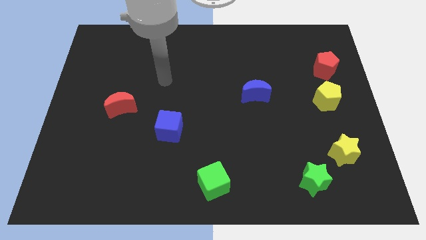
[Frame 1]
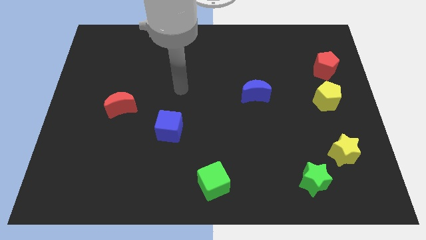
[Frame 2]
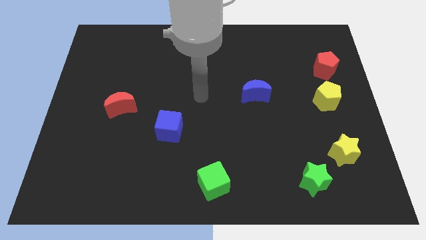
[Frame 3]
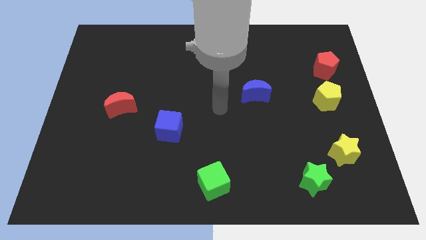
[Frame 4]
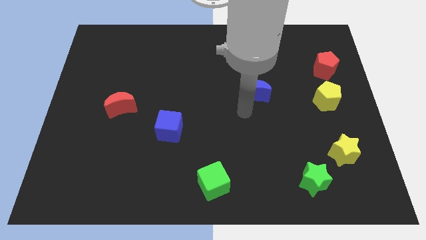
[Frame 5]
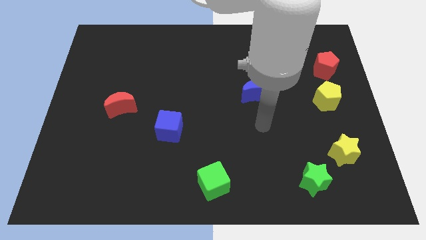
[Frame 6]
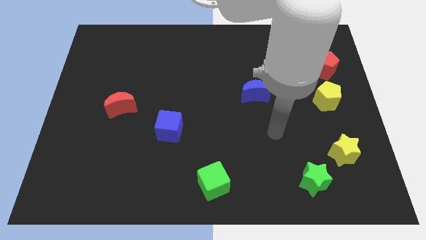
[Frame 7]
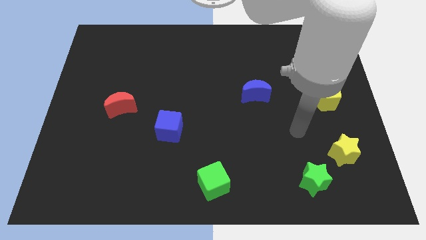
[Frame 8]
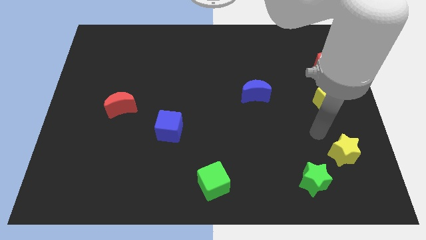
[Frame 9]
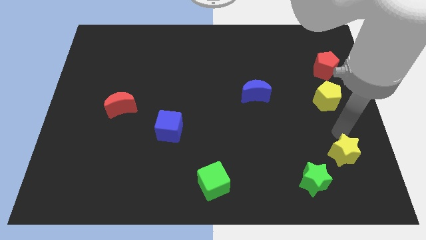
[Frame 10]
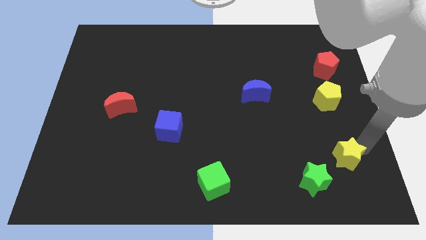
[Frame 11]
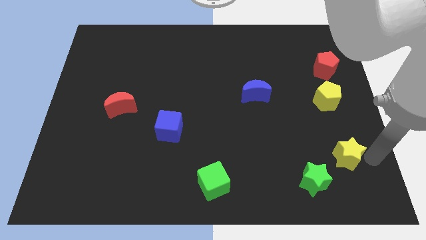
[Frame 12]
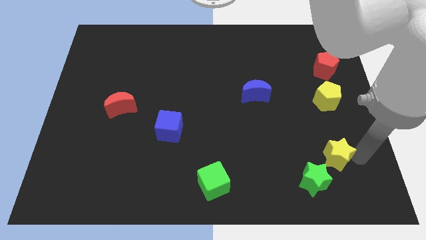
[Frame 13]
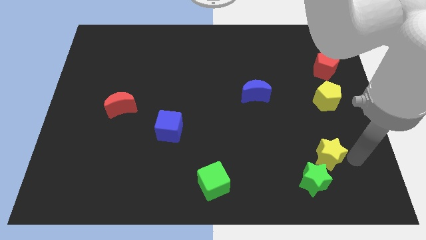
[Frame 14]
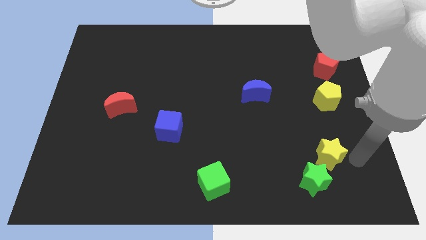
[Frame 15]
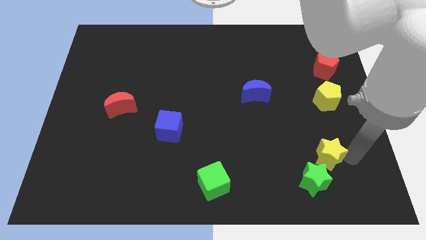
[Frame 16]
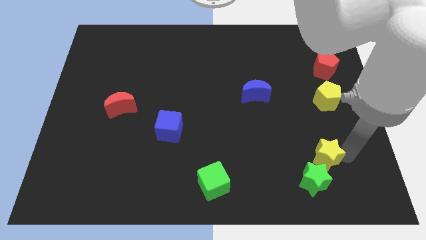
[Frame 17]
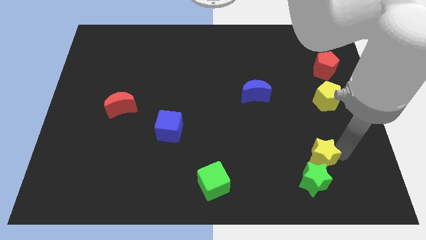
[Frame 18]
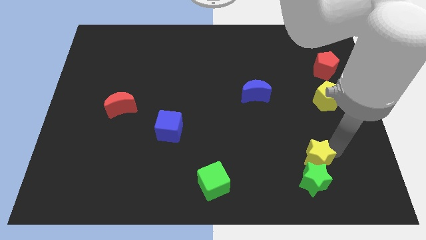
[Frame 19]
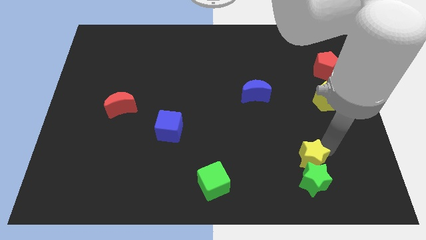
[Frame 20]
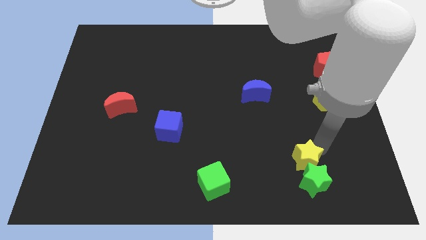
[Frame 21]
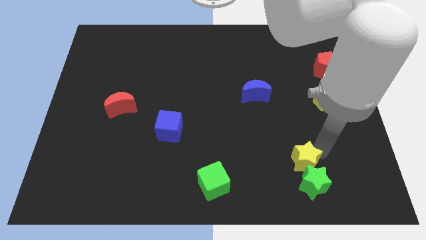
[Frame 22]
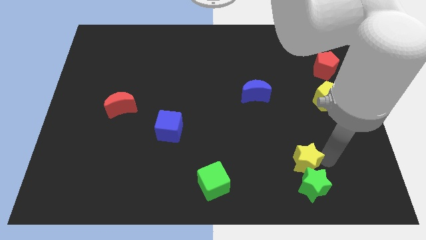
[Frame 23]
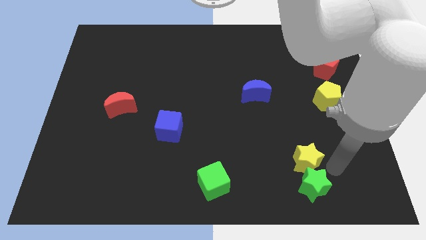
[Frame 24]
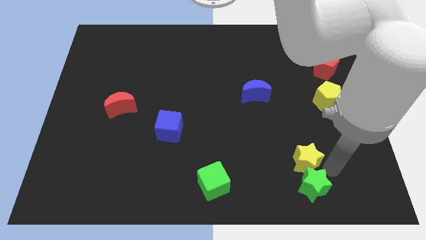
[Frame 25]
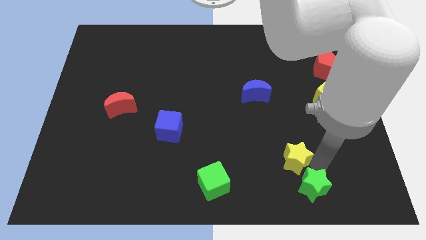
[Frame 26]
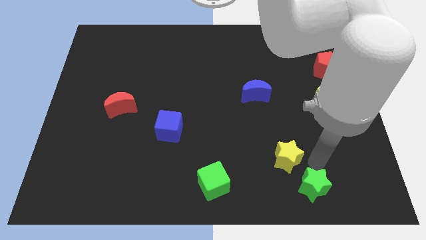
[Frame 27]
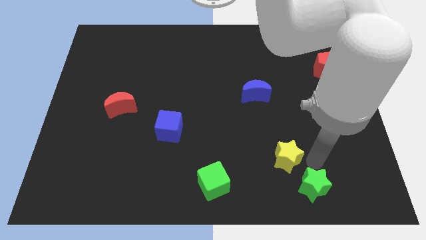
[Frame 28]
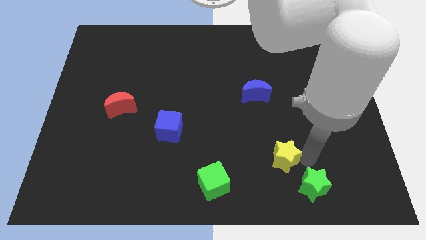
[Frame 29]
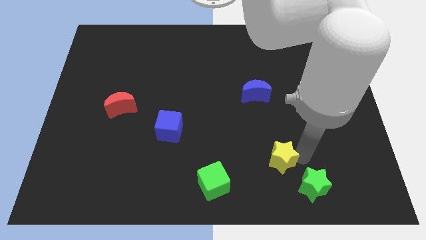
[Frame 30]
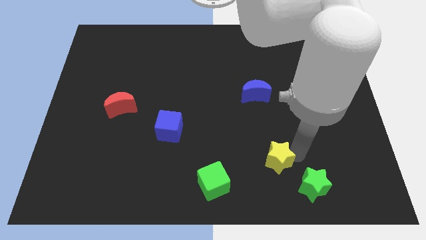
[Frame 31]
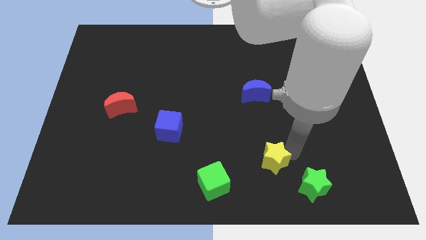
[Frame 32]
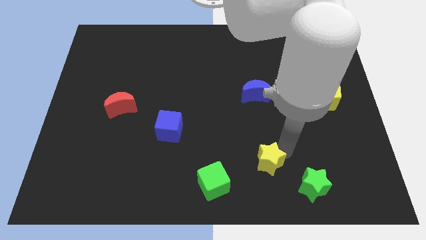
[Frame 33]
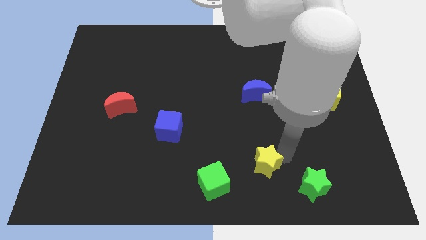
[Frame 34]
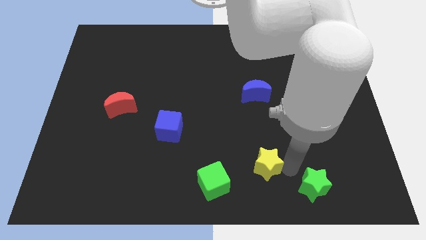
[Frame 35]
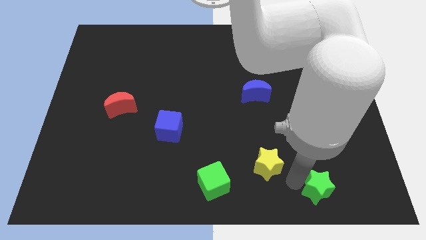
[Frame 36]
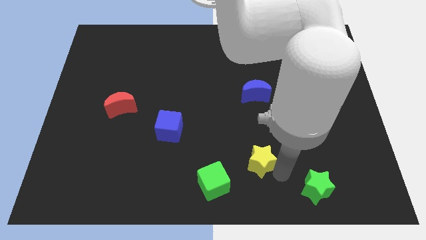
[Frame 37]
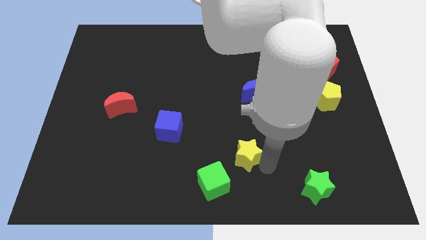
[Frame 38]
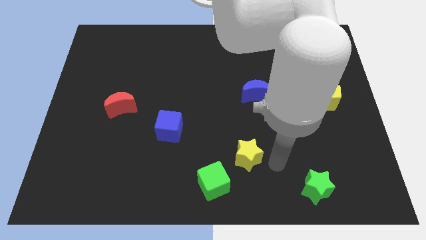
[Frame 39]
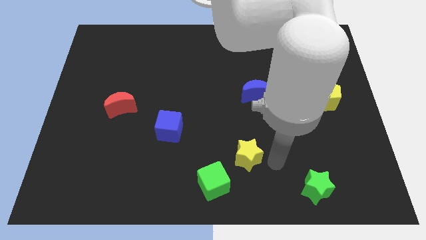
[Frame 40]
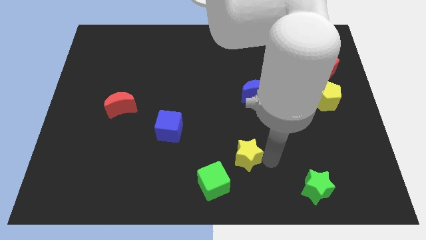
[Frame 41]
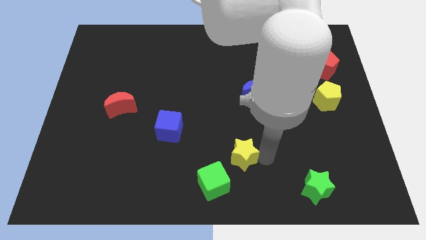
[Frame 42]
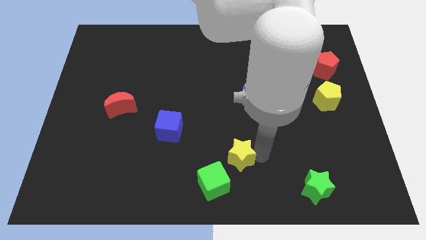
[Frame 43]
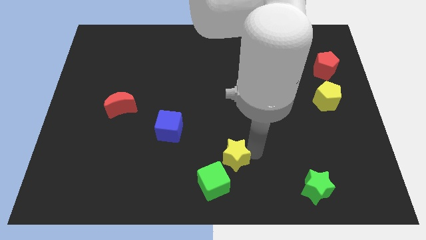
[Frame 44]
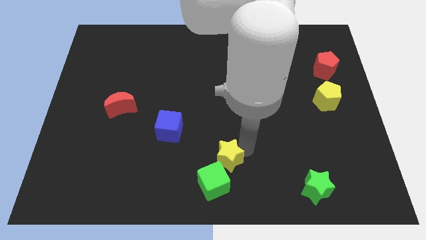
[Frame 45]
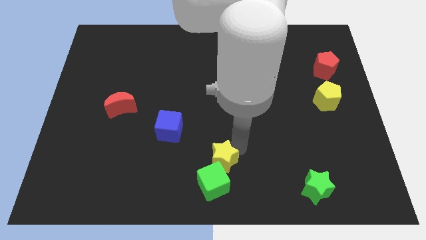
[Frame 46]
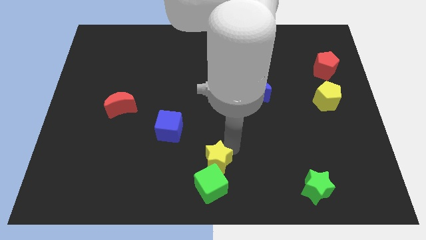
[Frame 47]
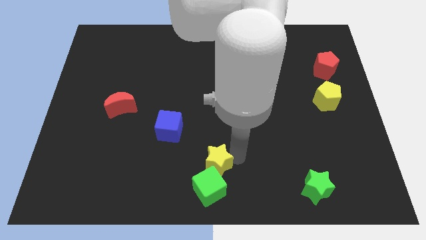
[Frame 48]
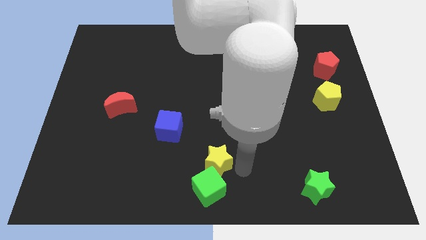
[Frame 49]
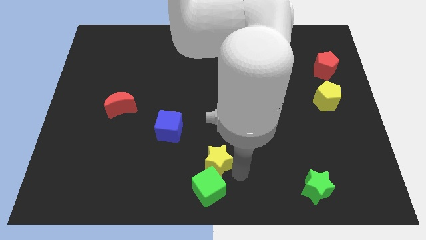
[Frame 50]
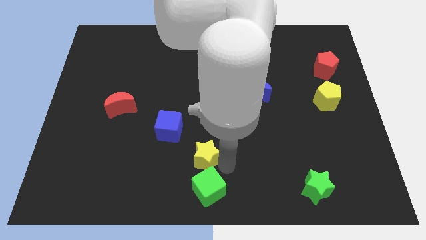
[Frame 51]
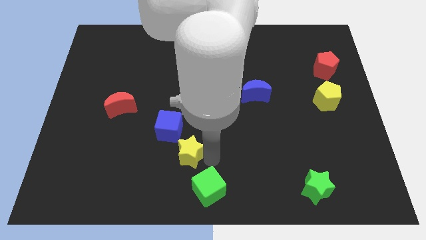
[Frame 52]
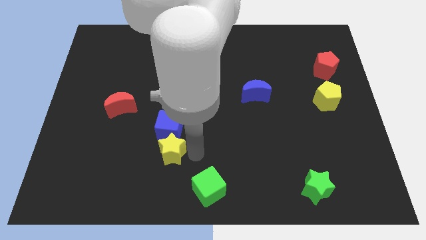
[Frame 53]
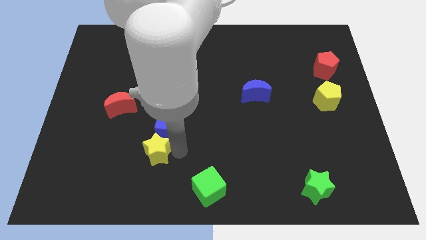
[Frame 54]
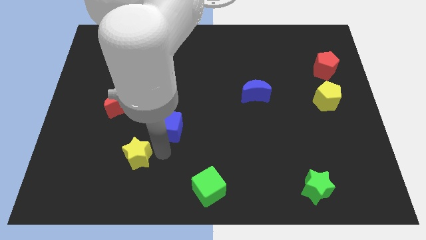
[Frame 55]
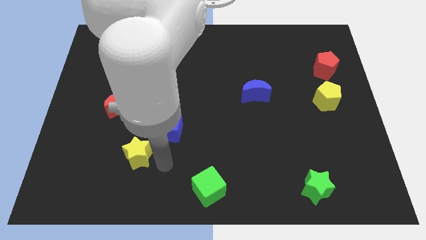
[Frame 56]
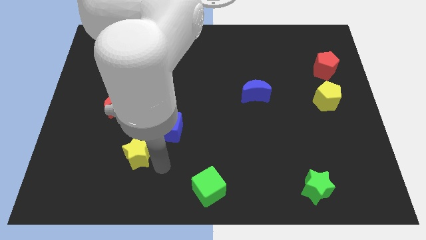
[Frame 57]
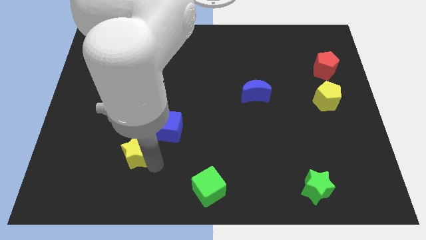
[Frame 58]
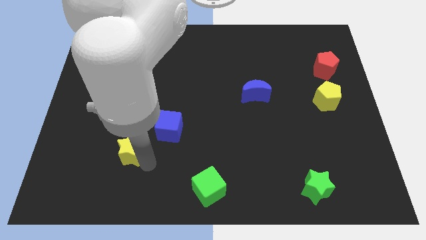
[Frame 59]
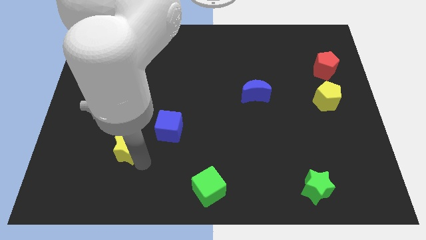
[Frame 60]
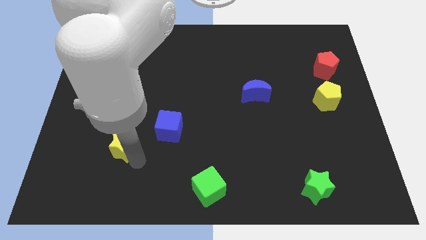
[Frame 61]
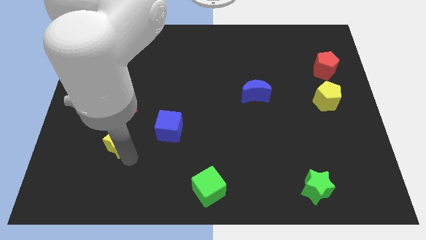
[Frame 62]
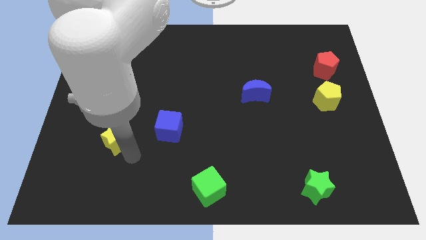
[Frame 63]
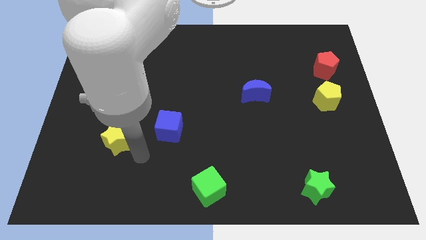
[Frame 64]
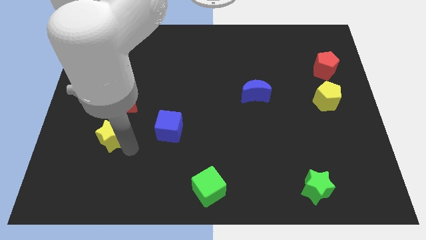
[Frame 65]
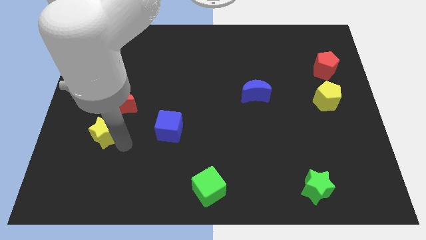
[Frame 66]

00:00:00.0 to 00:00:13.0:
put the yellow star diagonally down and to the left of the red moon

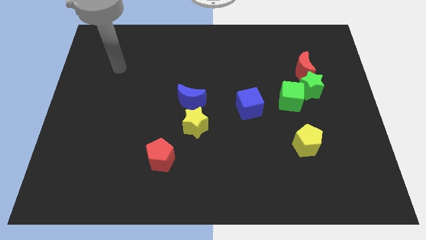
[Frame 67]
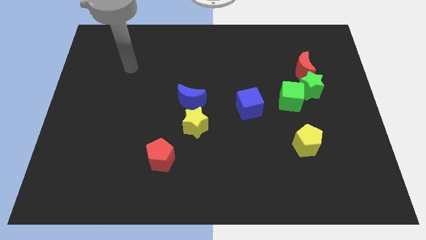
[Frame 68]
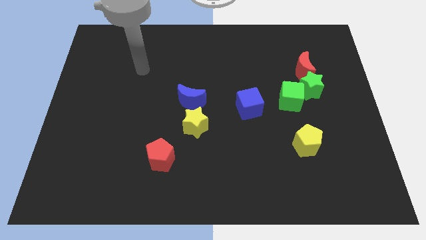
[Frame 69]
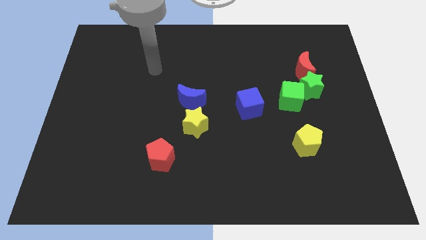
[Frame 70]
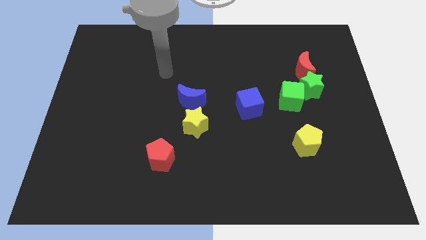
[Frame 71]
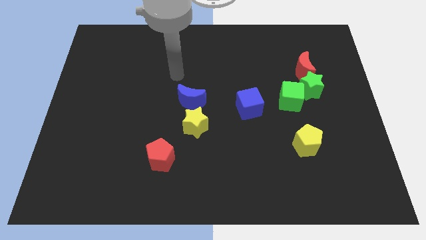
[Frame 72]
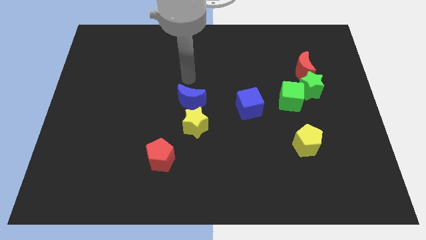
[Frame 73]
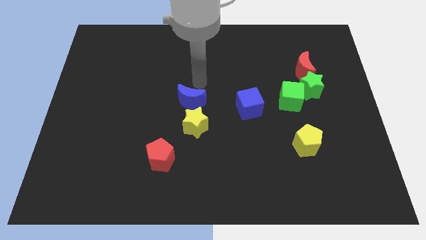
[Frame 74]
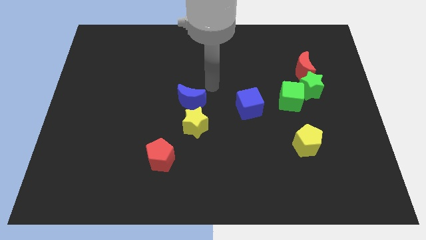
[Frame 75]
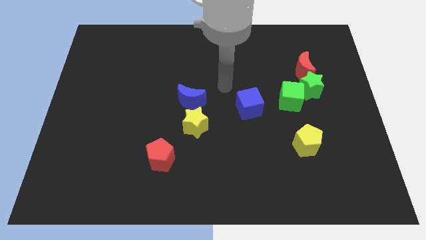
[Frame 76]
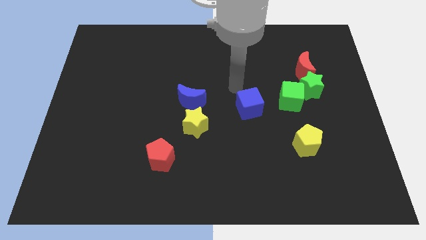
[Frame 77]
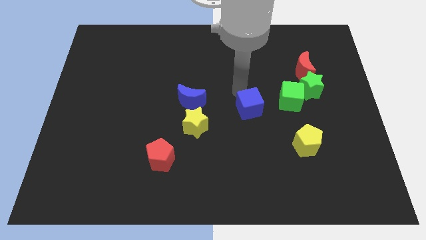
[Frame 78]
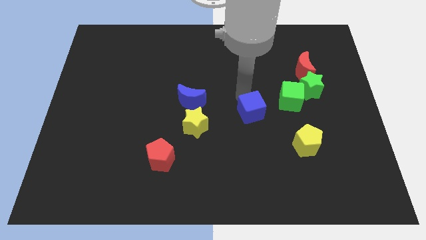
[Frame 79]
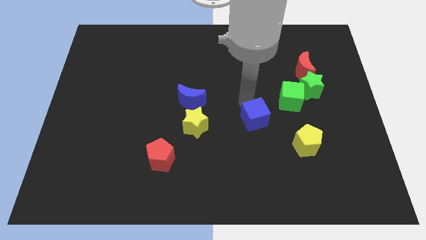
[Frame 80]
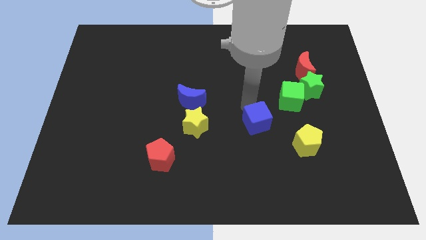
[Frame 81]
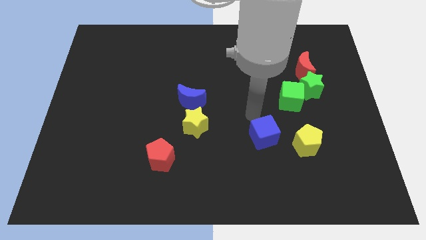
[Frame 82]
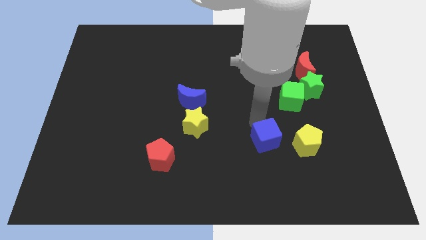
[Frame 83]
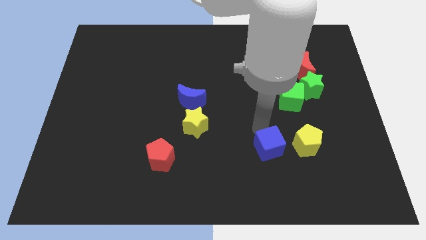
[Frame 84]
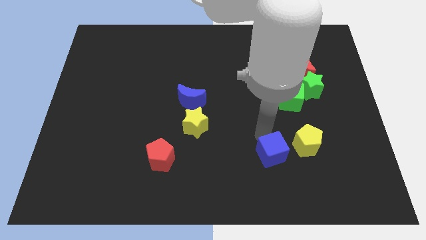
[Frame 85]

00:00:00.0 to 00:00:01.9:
move the blue cube diagonally down and to the left of the yellow pentagon
